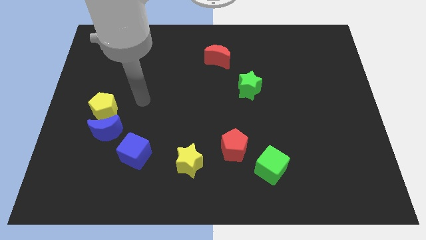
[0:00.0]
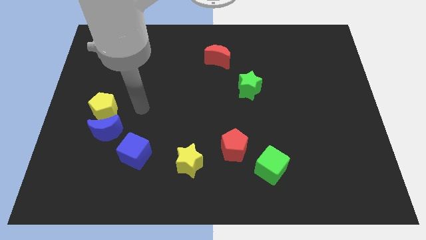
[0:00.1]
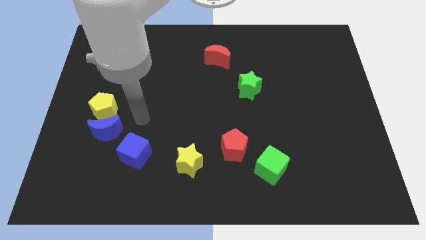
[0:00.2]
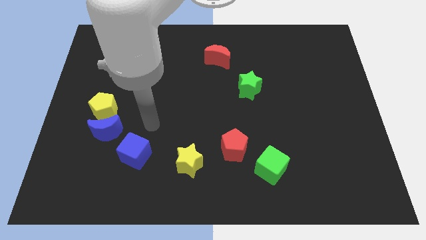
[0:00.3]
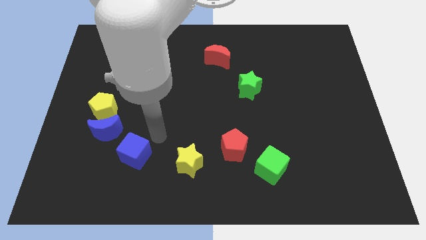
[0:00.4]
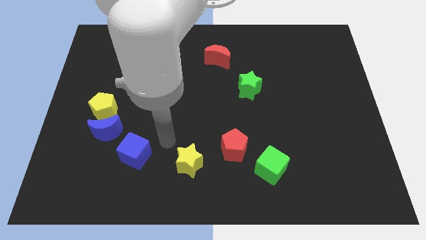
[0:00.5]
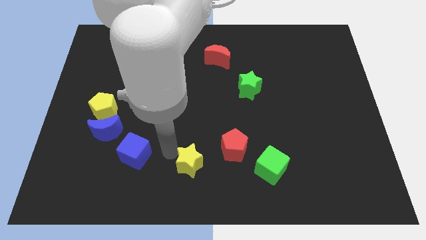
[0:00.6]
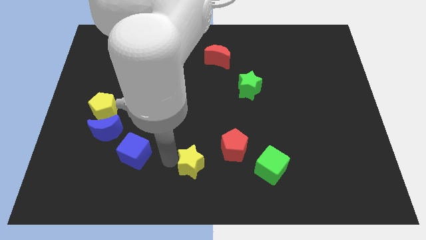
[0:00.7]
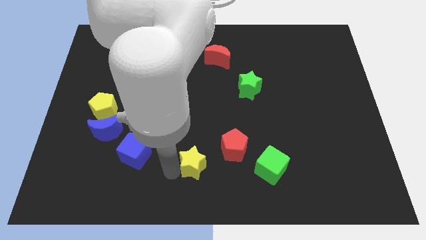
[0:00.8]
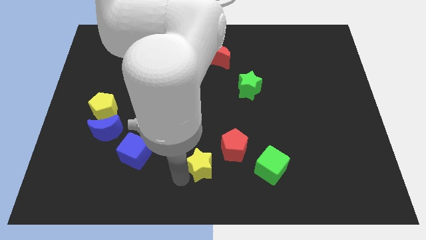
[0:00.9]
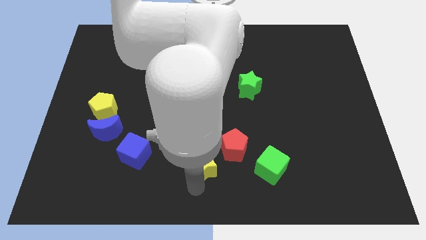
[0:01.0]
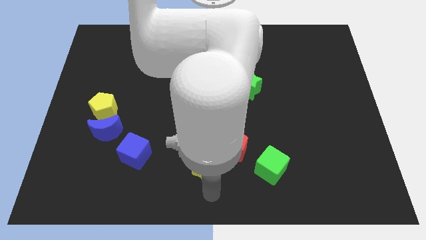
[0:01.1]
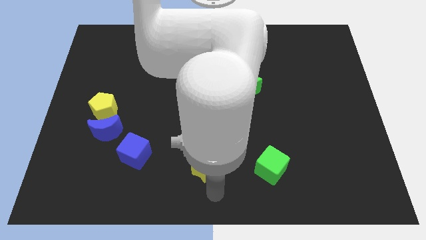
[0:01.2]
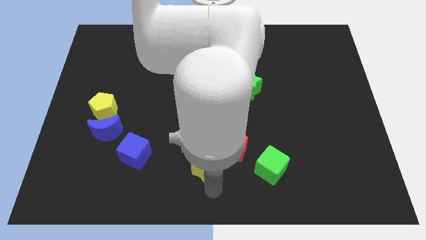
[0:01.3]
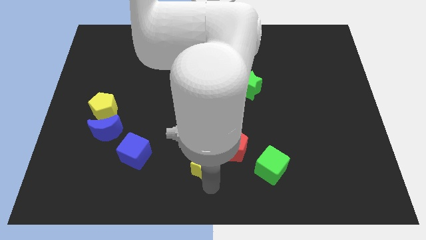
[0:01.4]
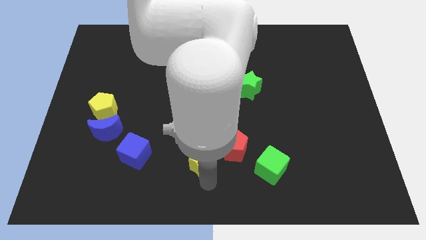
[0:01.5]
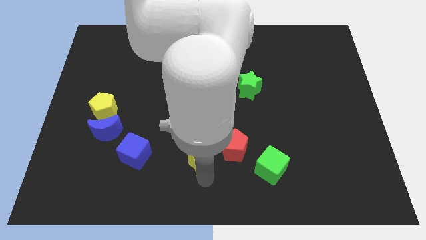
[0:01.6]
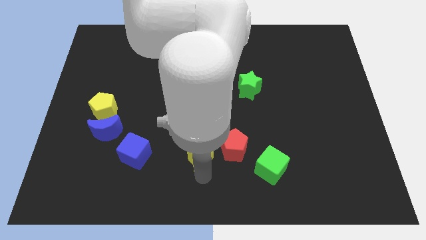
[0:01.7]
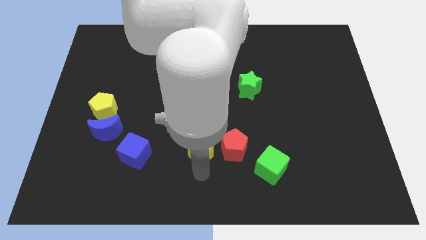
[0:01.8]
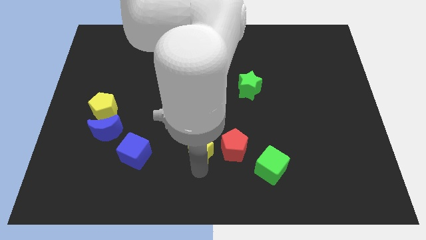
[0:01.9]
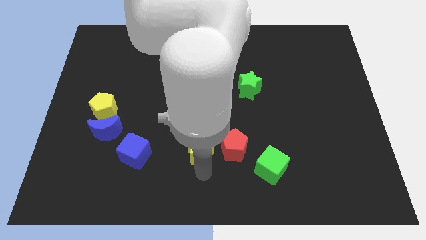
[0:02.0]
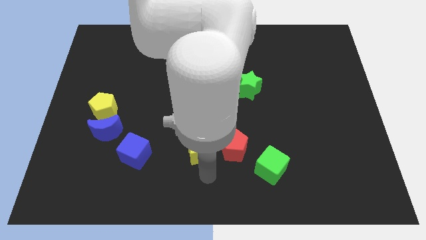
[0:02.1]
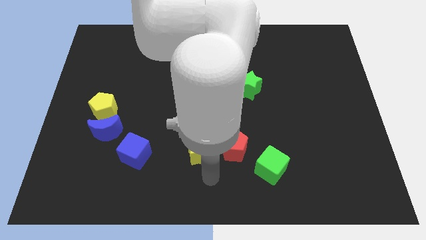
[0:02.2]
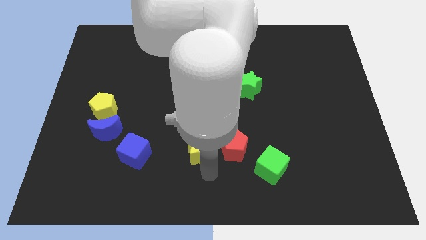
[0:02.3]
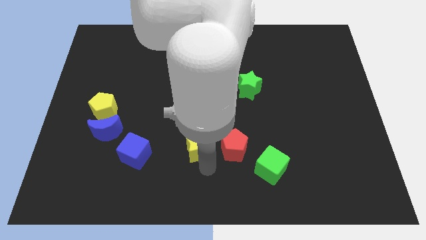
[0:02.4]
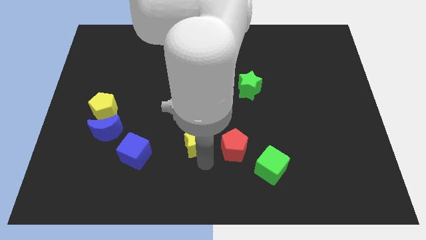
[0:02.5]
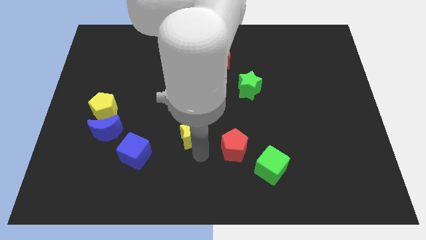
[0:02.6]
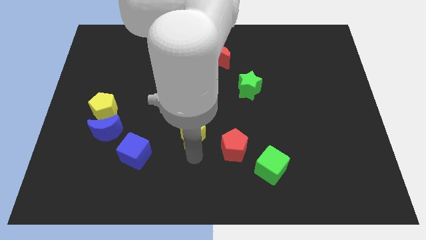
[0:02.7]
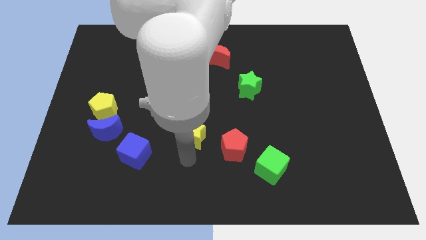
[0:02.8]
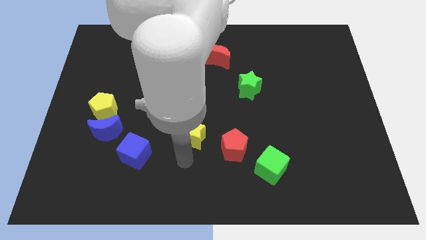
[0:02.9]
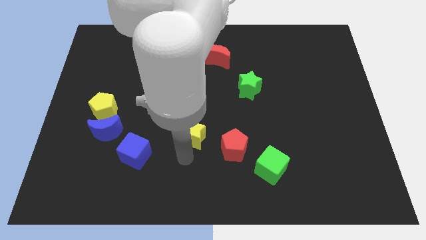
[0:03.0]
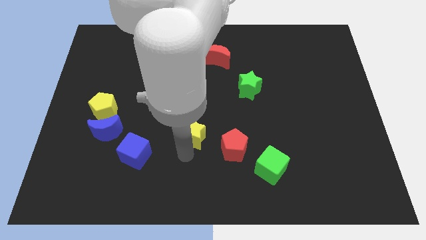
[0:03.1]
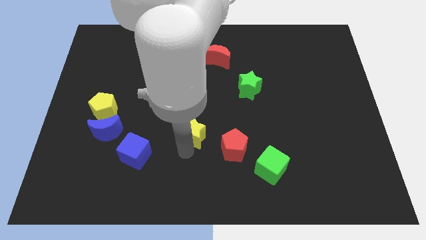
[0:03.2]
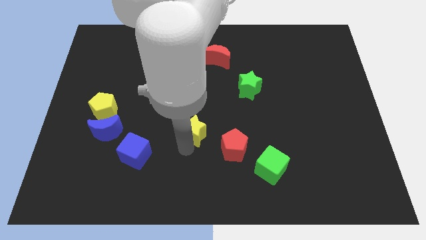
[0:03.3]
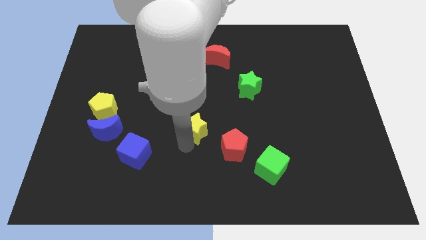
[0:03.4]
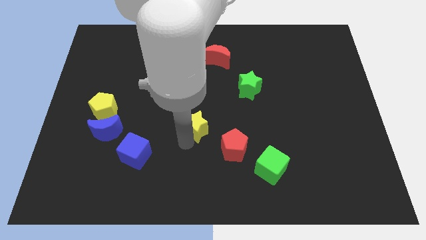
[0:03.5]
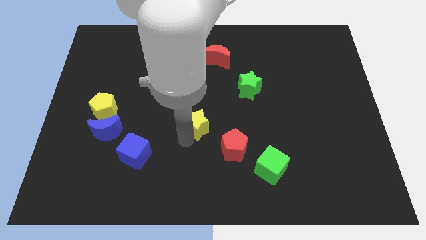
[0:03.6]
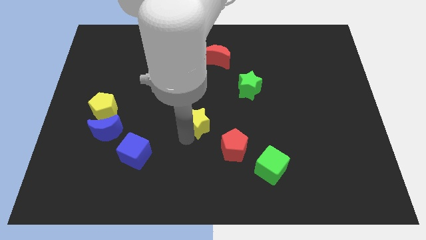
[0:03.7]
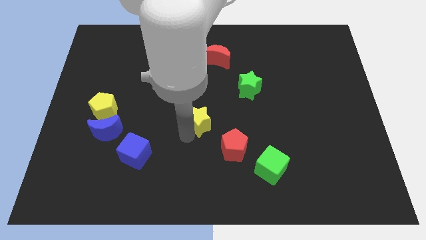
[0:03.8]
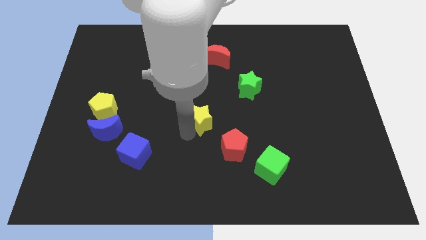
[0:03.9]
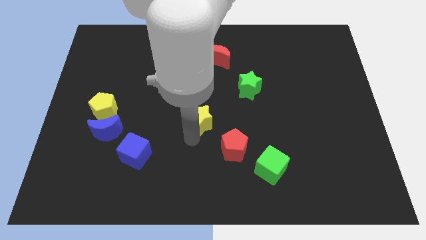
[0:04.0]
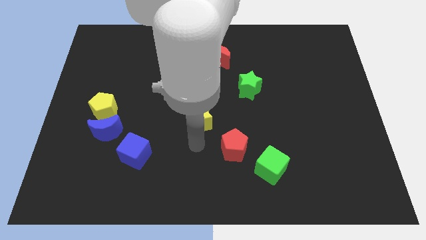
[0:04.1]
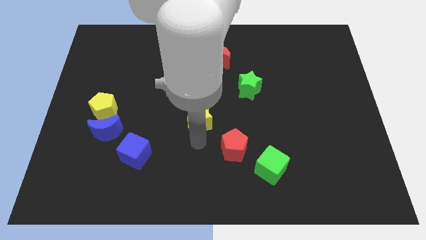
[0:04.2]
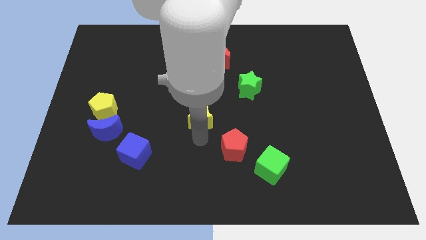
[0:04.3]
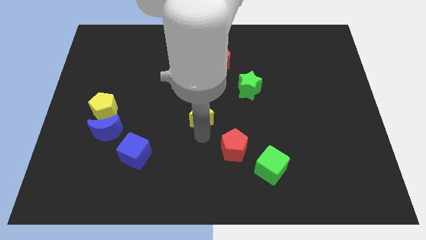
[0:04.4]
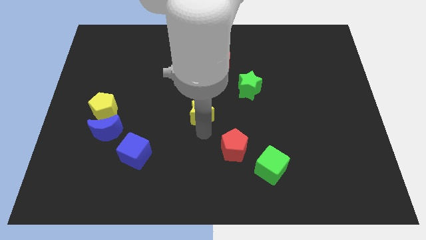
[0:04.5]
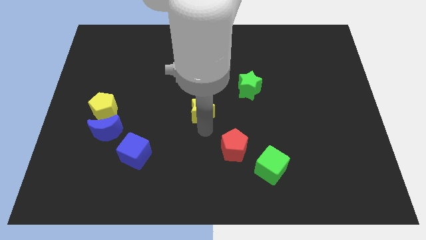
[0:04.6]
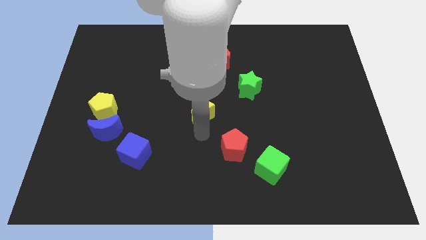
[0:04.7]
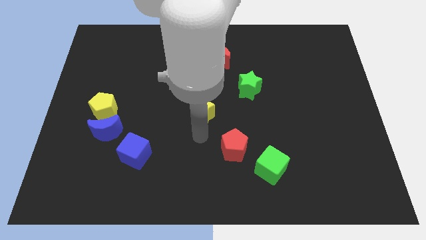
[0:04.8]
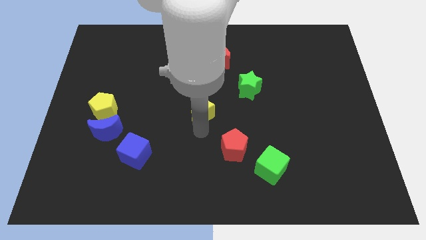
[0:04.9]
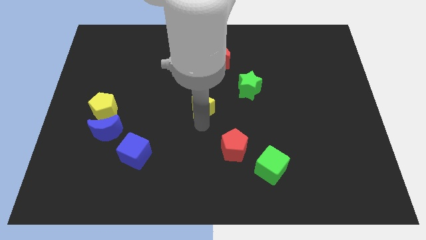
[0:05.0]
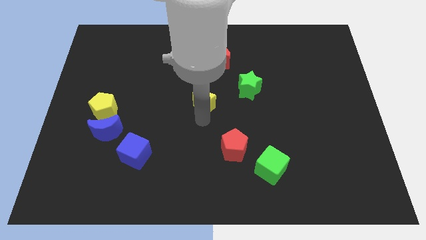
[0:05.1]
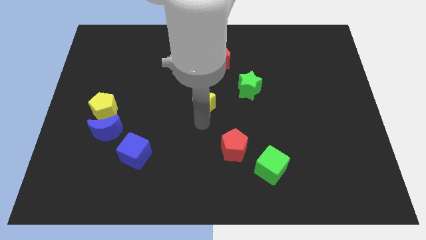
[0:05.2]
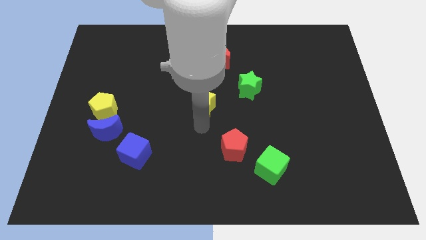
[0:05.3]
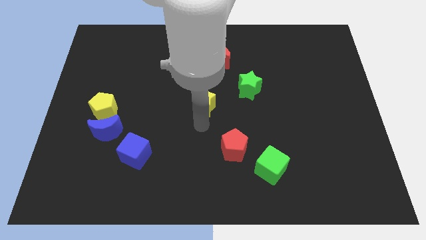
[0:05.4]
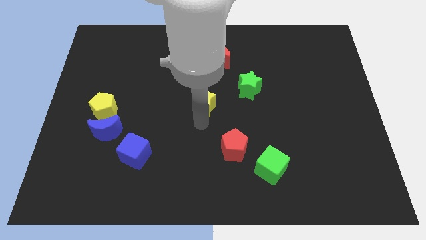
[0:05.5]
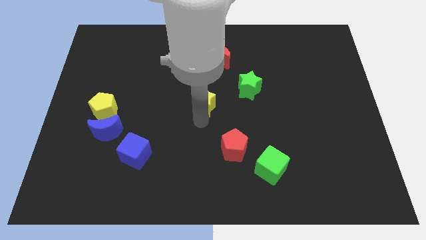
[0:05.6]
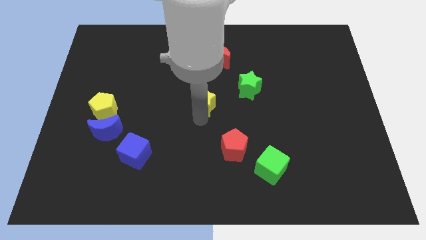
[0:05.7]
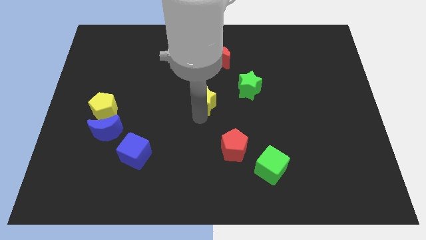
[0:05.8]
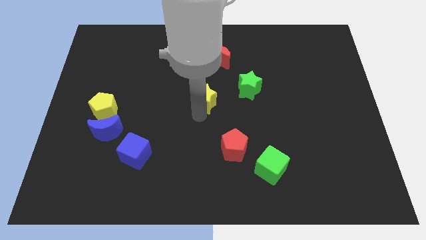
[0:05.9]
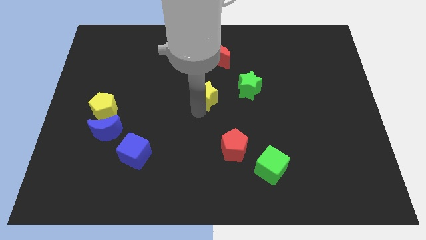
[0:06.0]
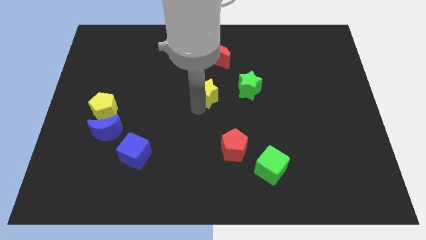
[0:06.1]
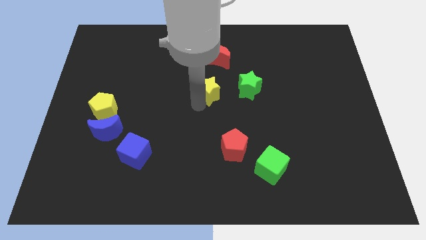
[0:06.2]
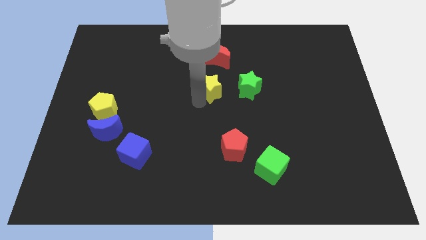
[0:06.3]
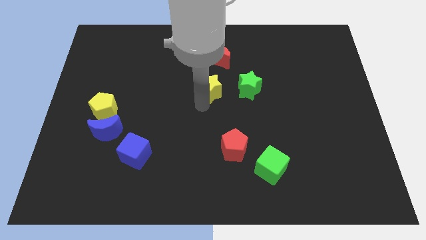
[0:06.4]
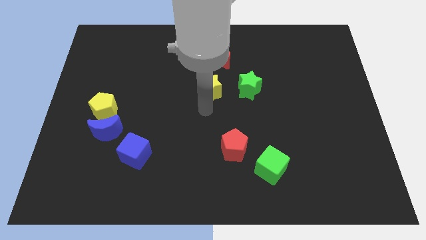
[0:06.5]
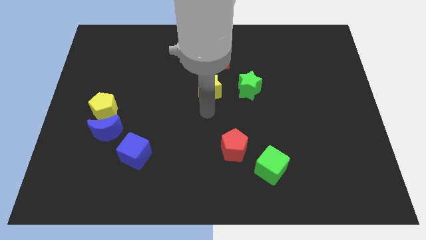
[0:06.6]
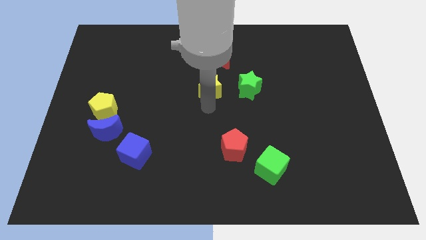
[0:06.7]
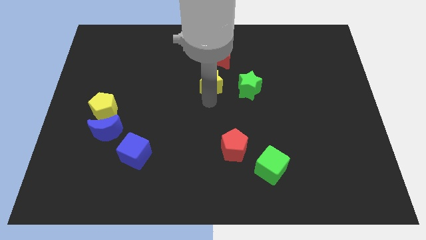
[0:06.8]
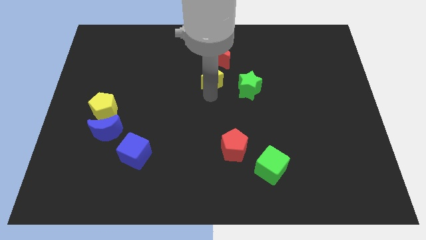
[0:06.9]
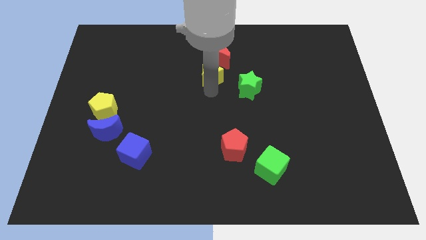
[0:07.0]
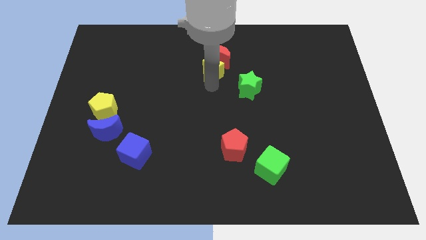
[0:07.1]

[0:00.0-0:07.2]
put the yellow star next to the red moon
